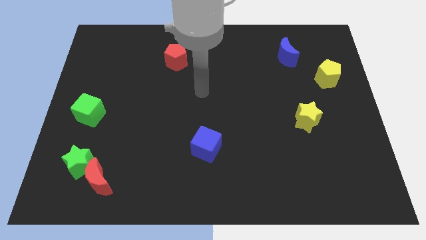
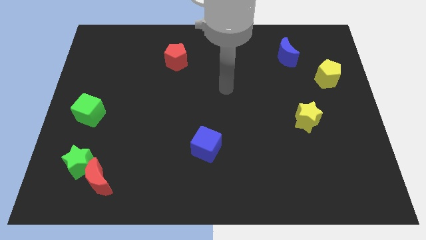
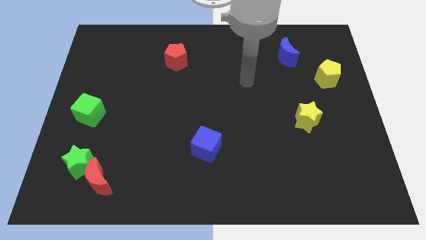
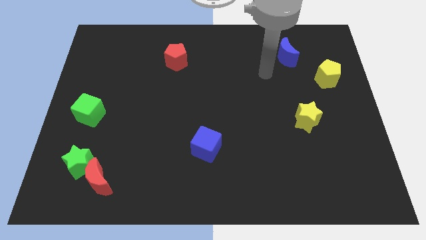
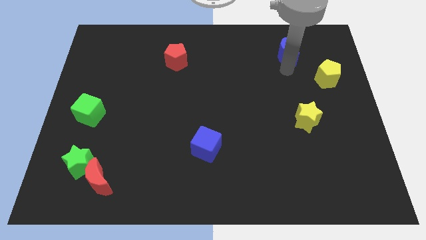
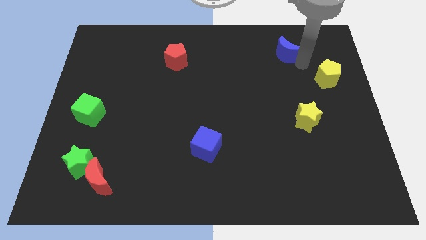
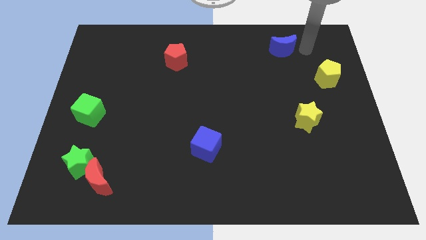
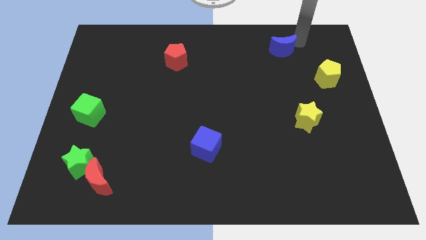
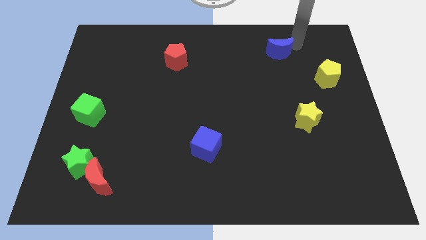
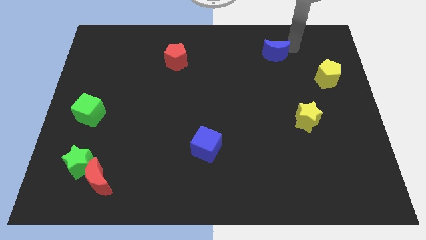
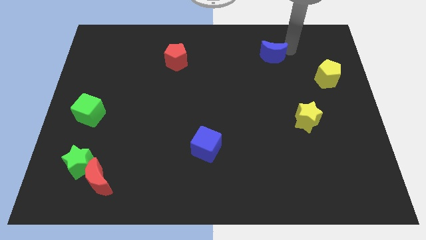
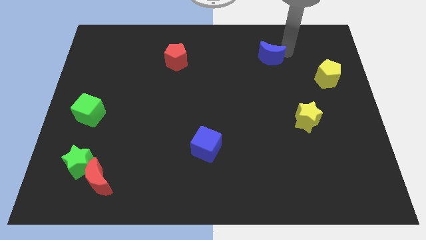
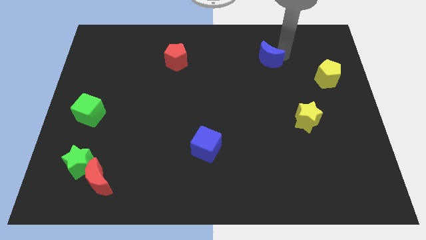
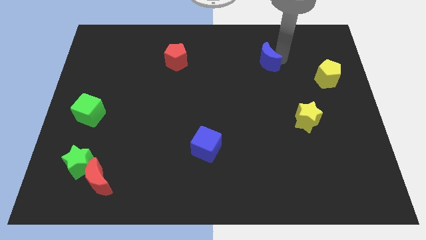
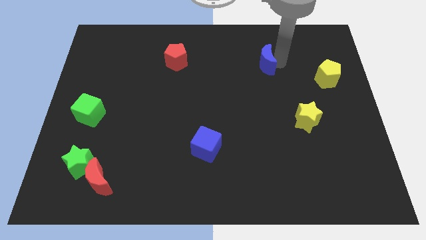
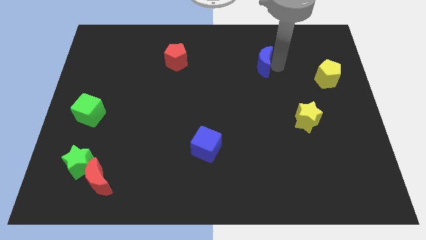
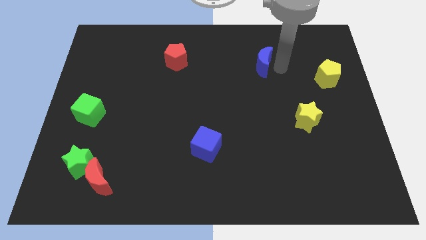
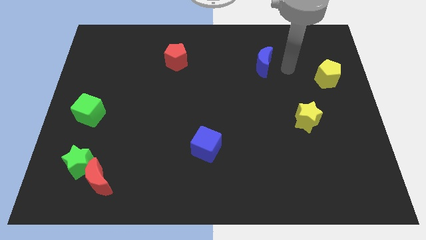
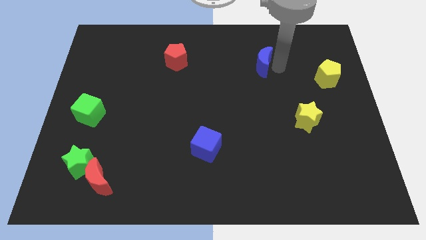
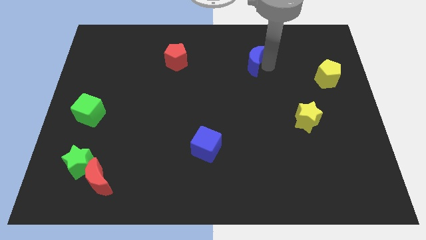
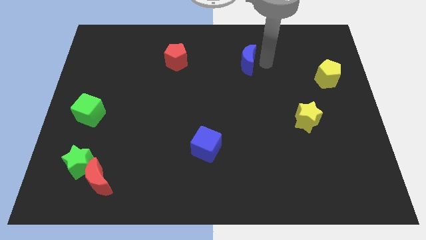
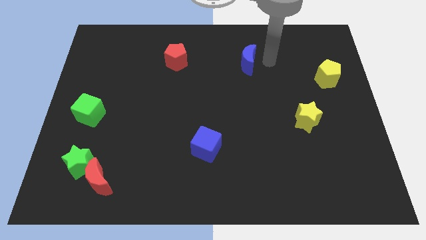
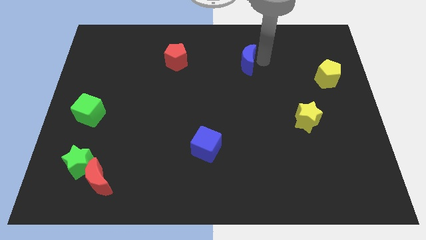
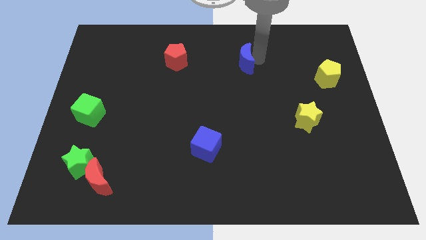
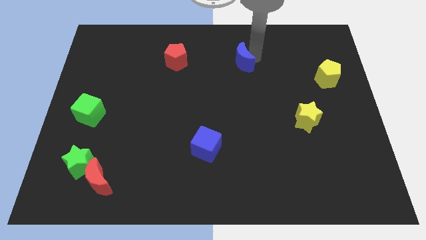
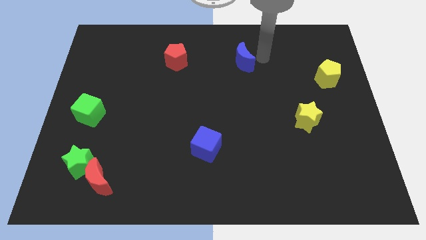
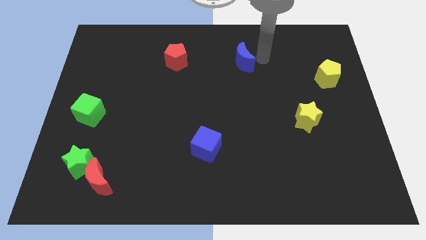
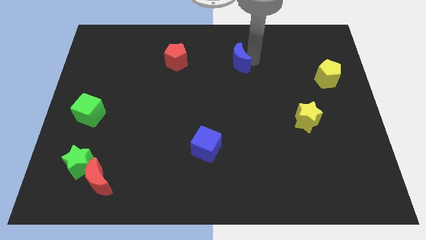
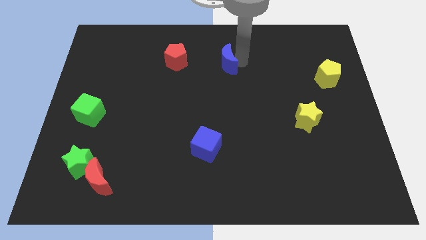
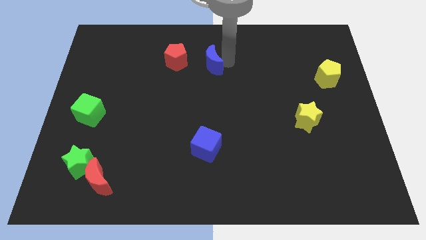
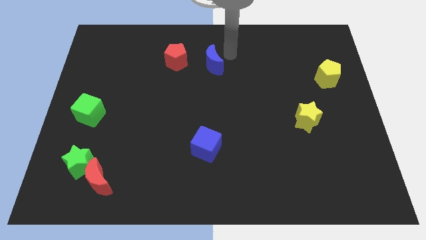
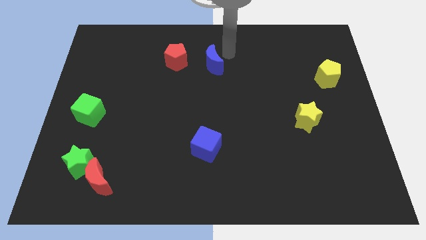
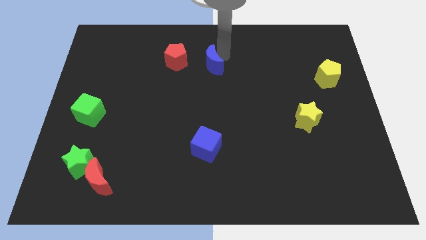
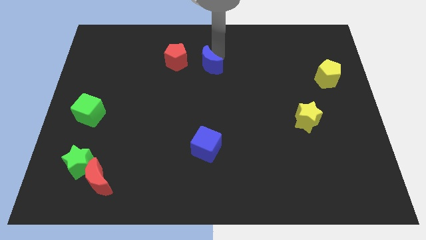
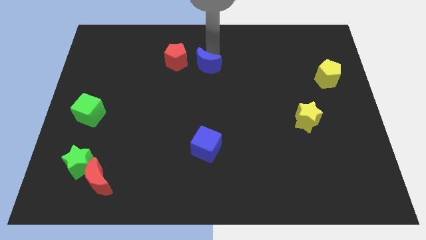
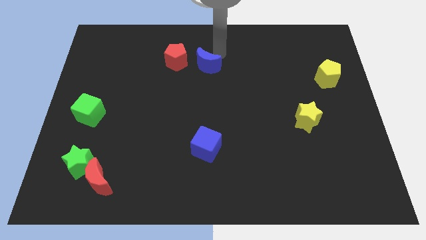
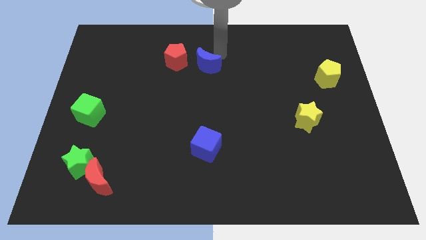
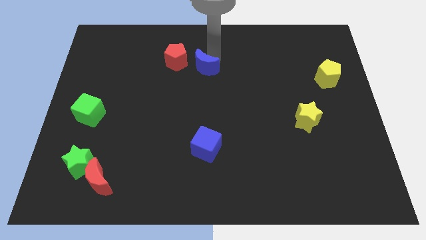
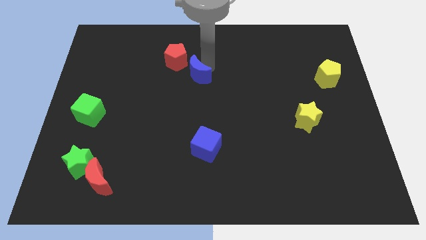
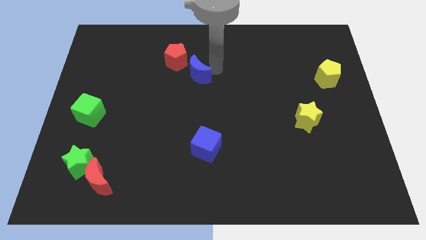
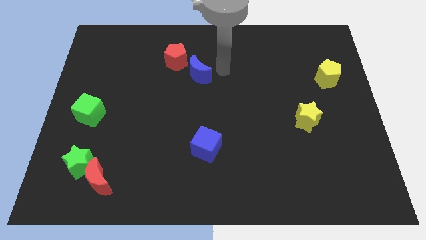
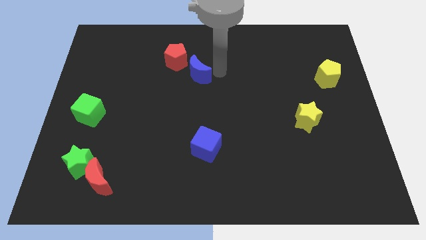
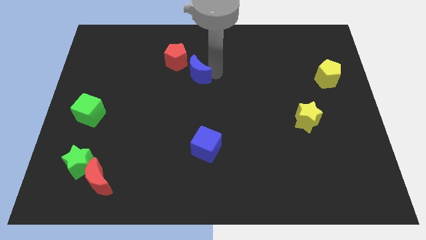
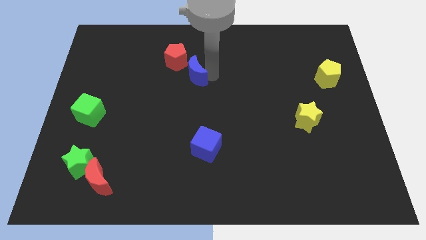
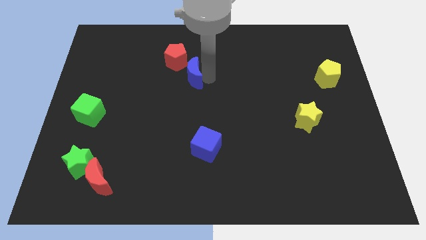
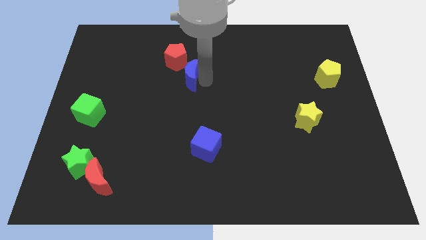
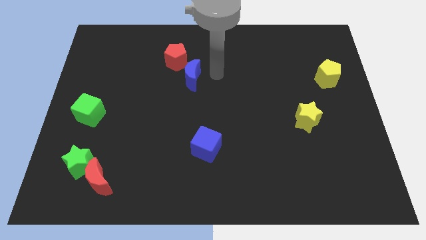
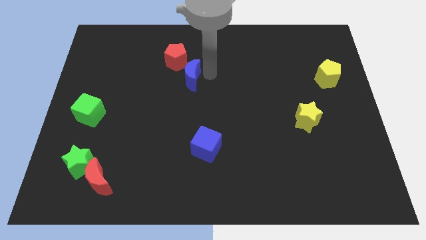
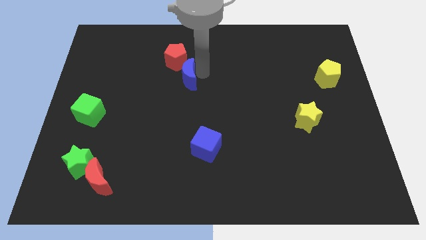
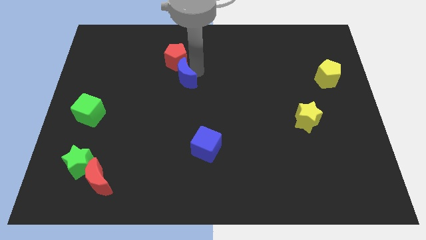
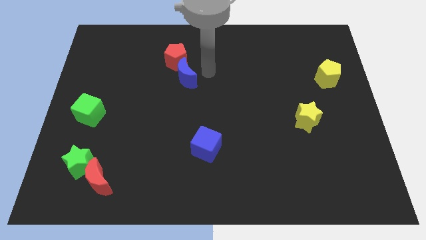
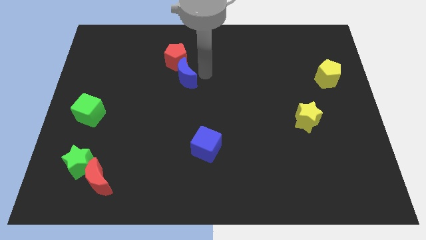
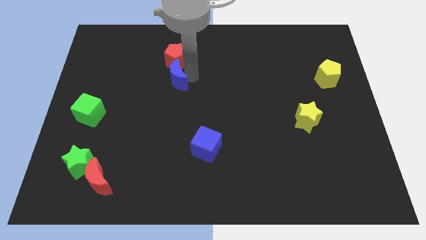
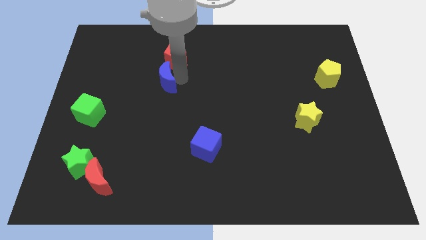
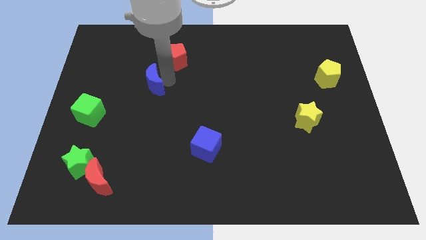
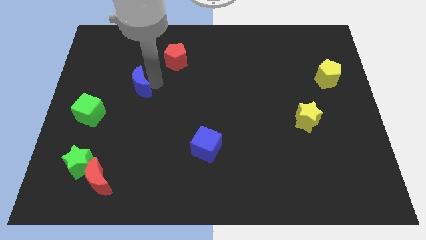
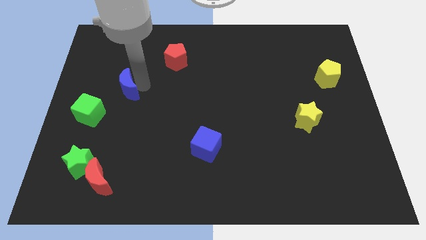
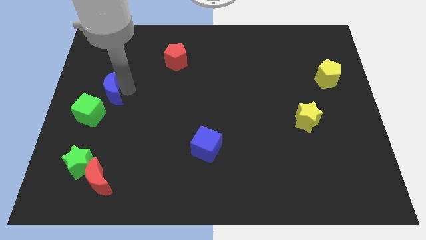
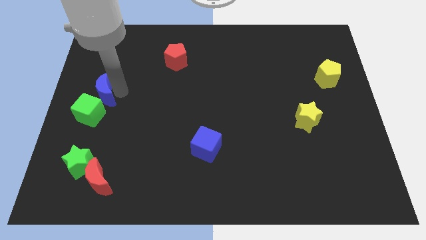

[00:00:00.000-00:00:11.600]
push the blue moon to the center left
